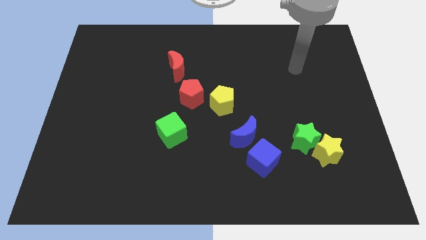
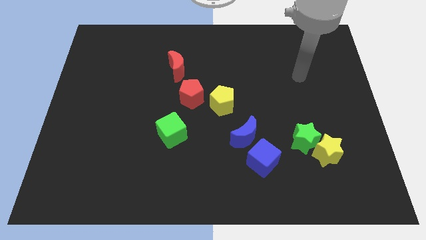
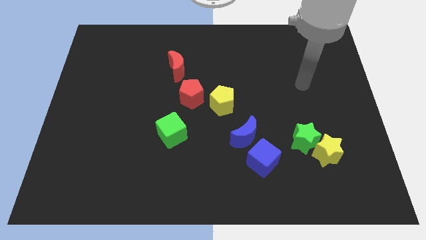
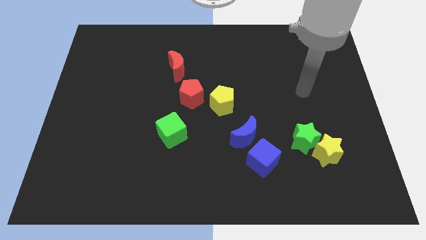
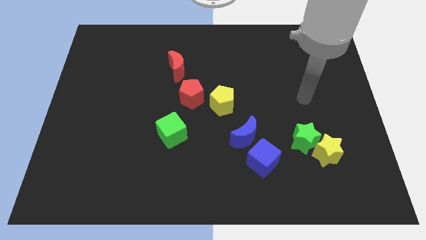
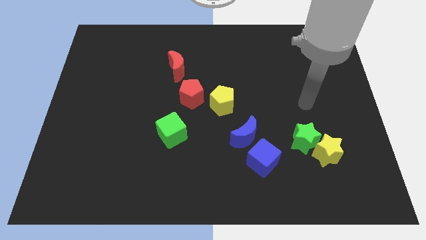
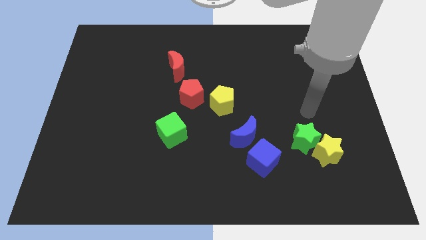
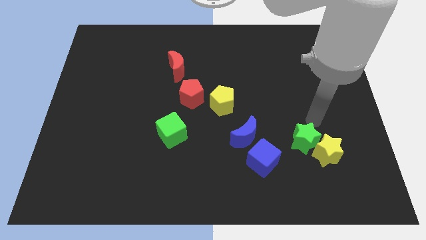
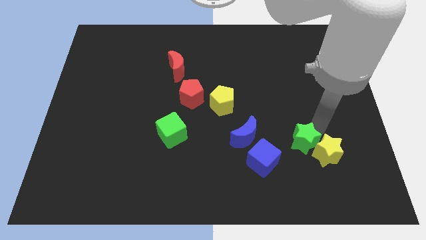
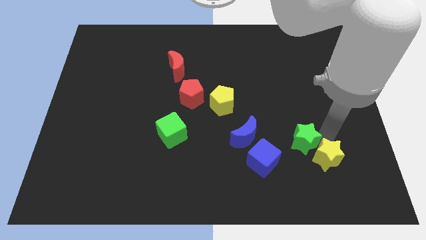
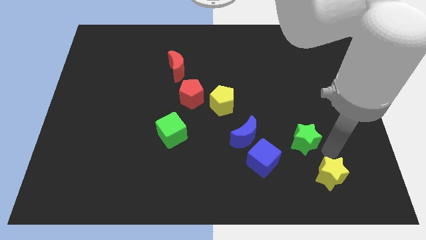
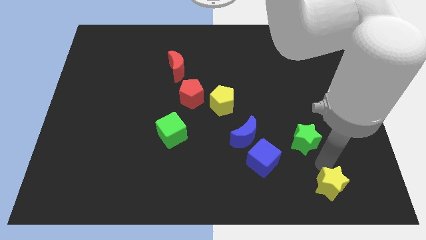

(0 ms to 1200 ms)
separate the green star from the yellow star

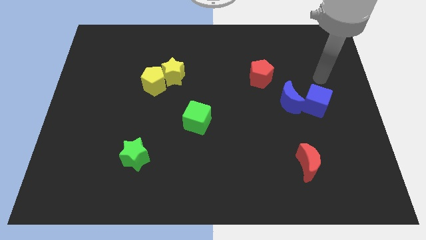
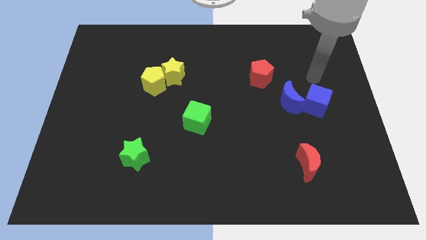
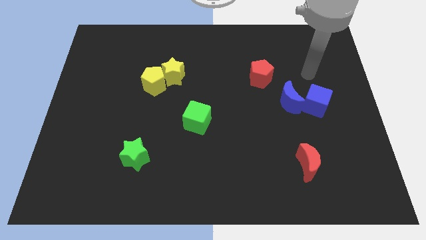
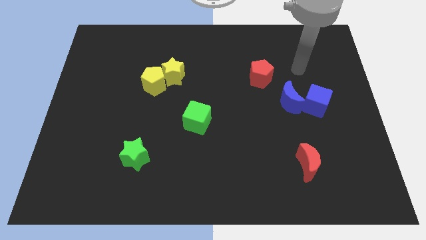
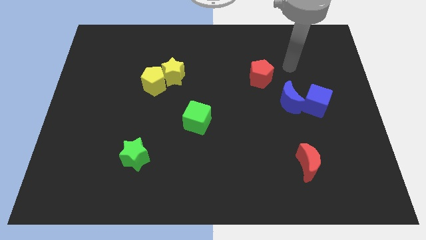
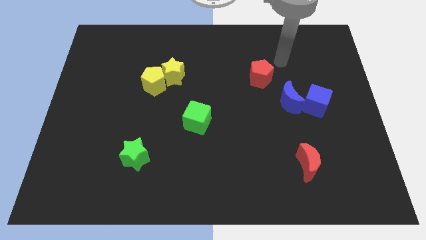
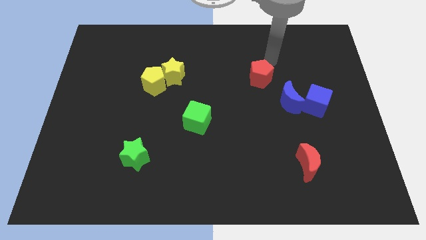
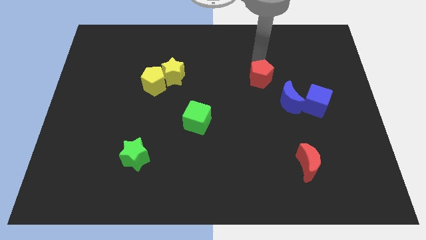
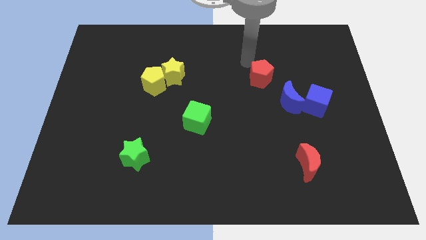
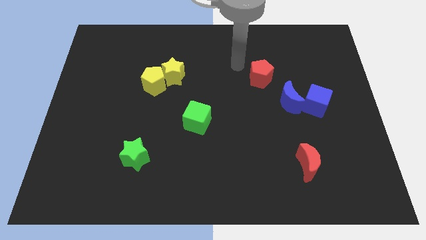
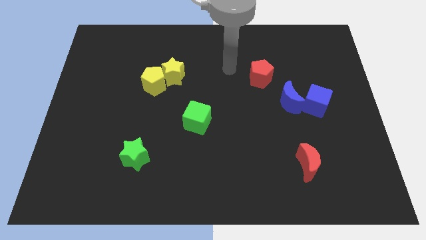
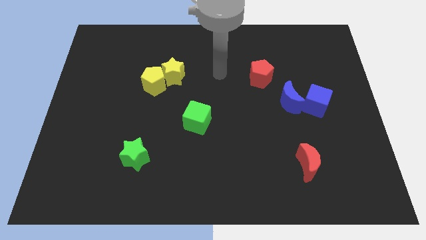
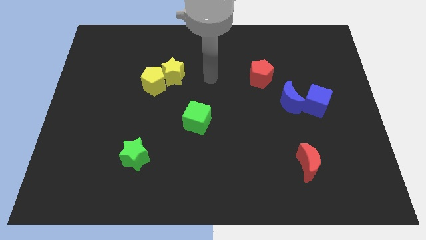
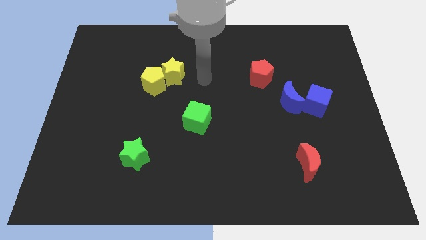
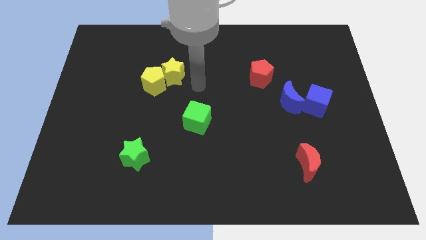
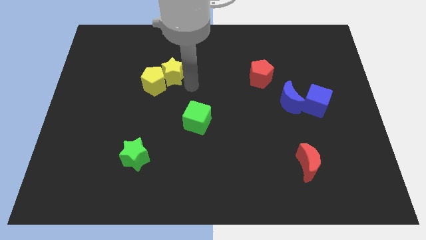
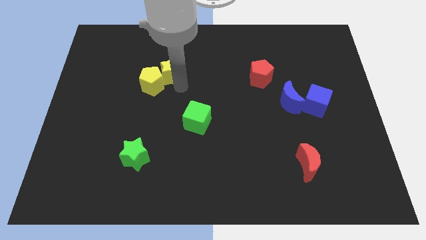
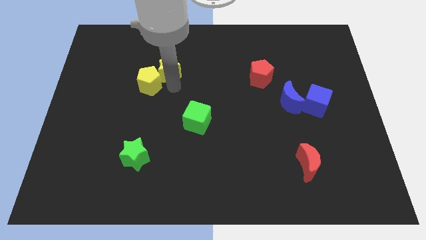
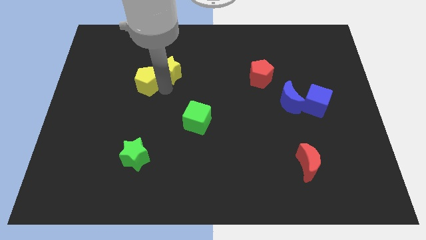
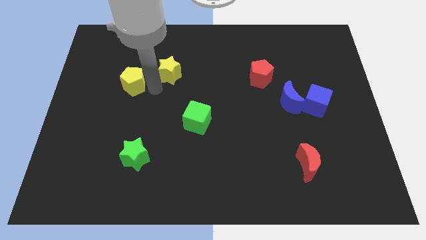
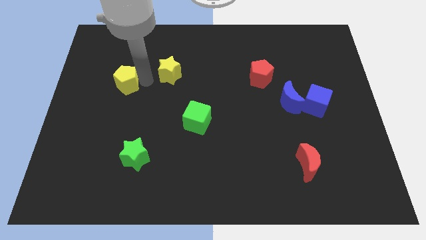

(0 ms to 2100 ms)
pull the yellow star apart from the yellow pentagon

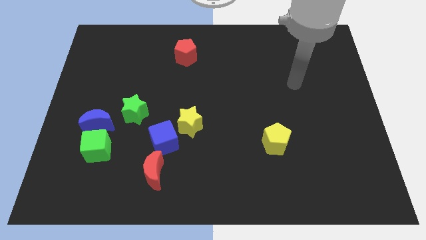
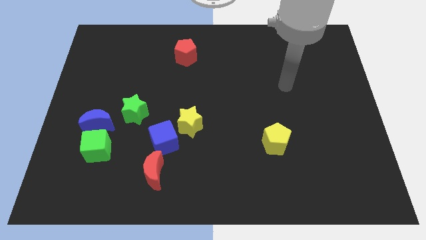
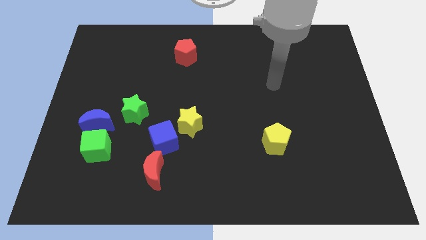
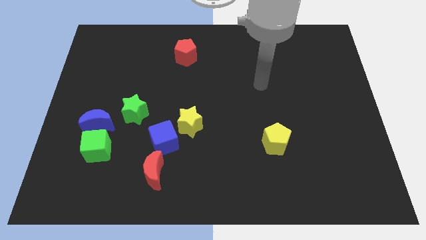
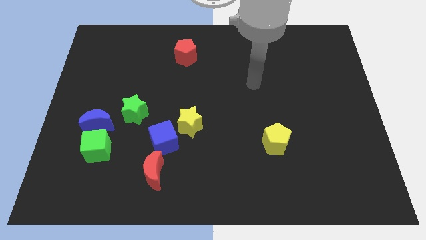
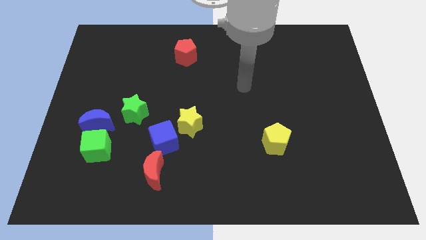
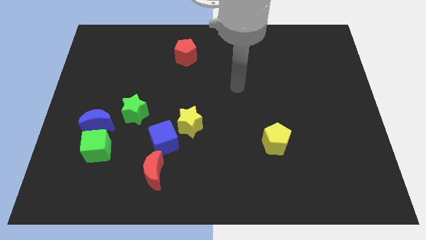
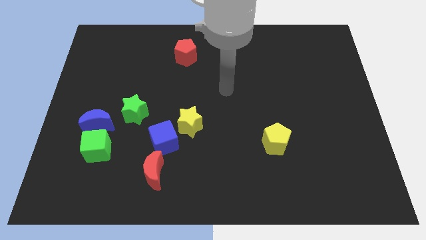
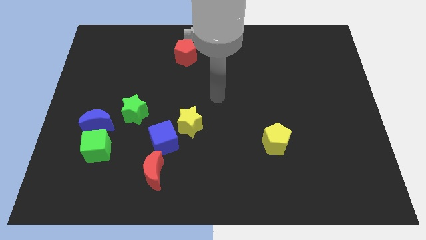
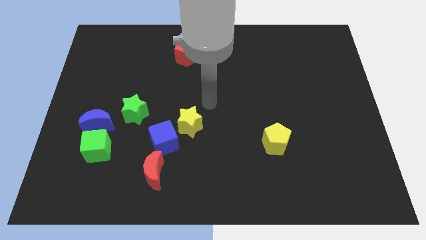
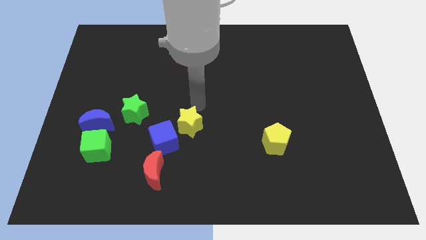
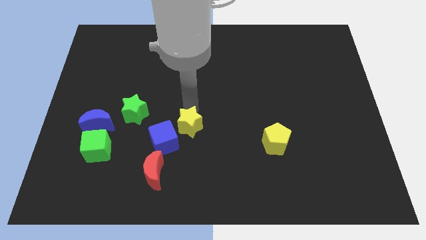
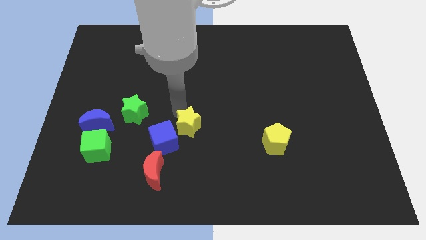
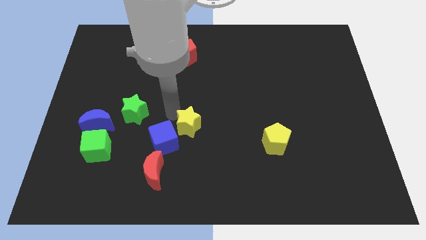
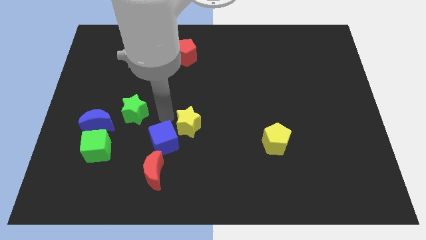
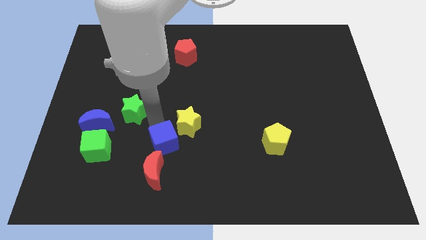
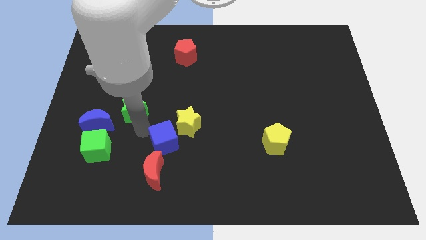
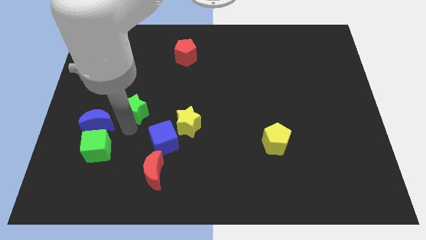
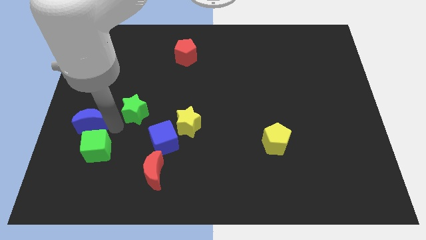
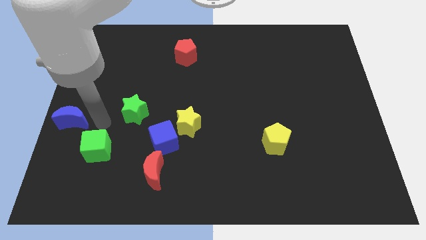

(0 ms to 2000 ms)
pull the green cube apart from the blue moon

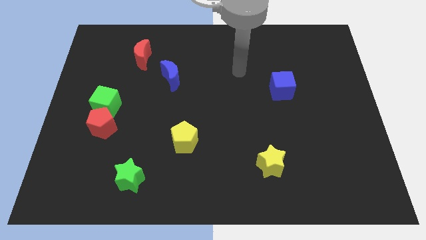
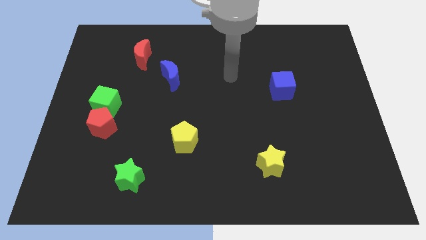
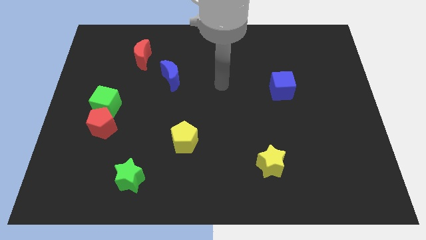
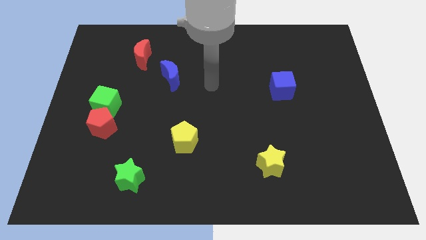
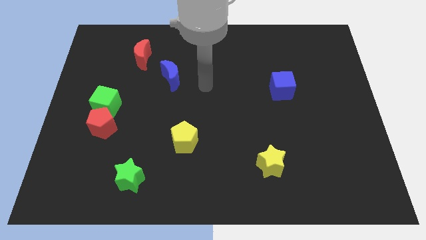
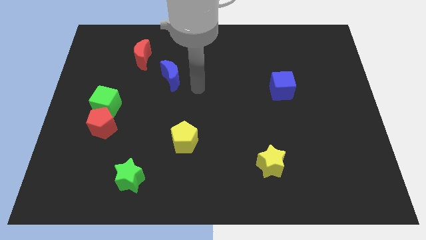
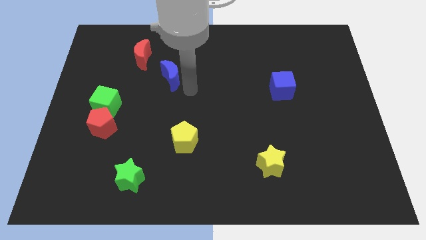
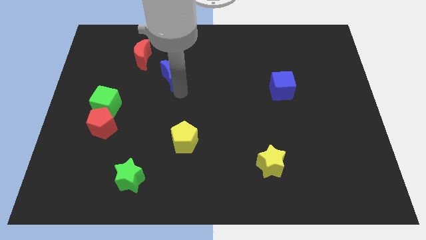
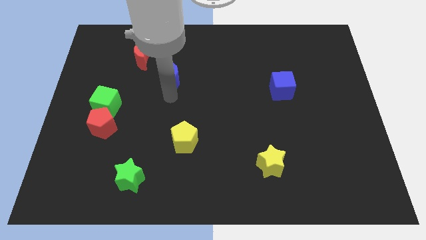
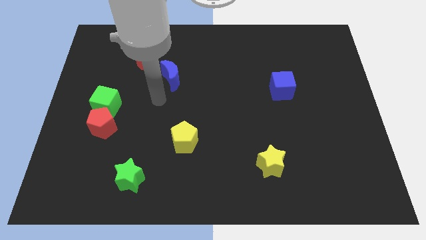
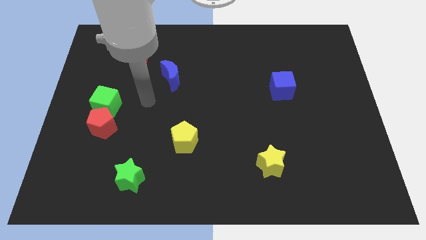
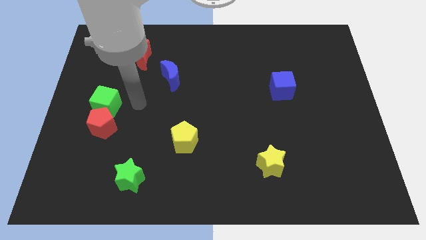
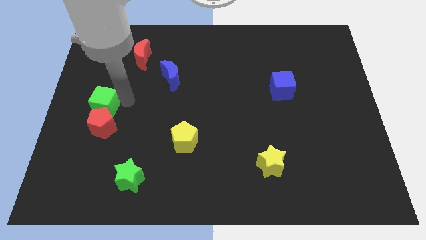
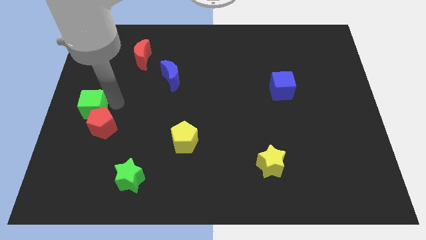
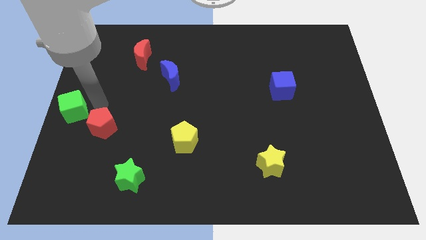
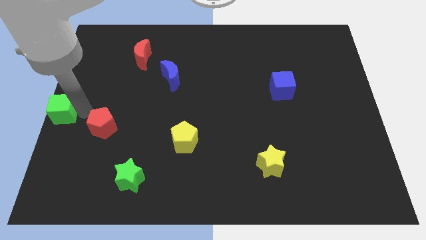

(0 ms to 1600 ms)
separate the red pentagon from the green cube

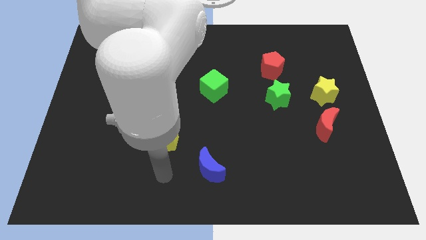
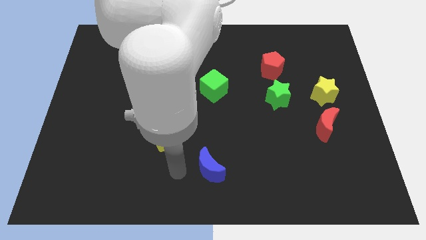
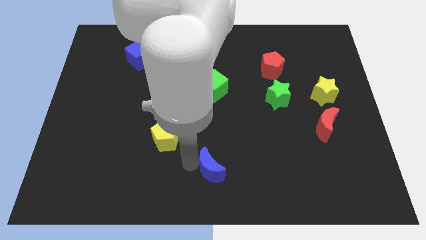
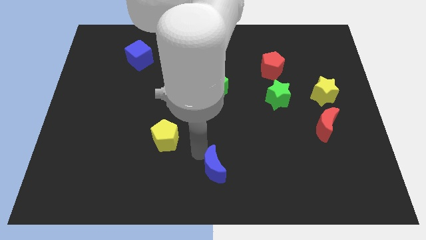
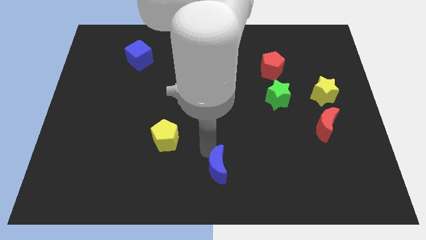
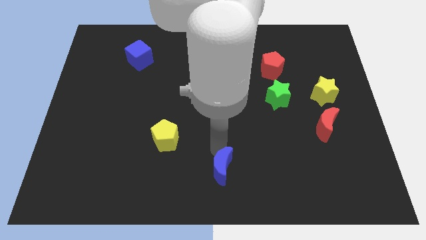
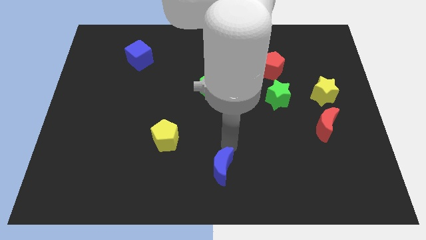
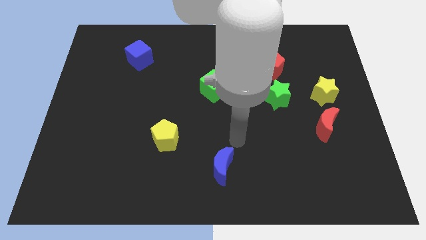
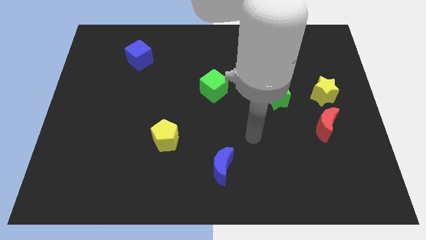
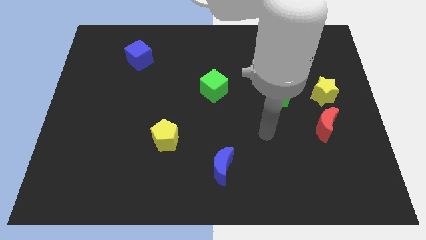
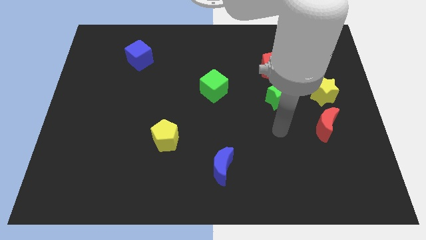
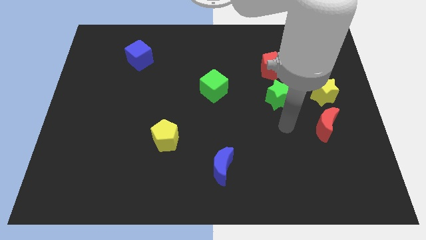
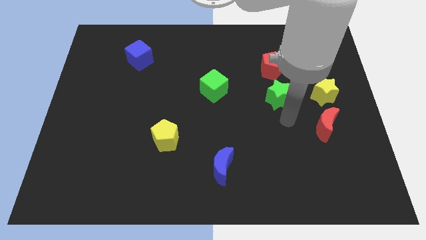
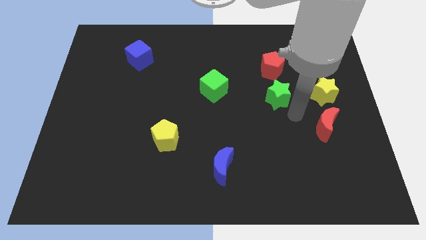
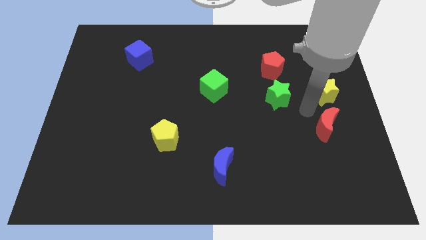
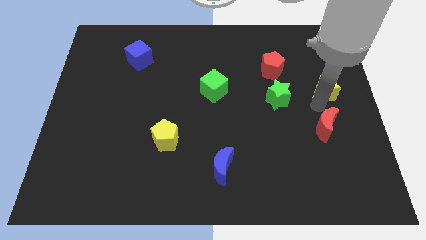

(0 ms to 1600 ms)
move the red moon away from the yellow star

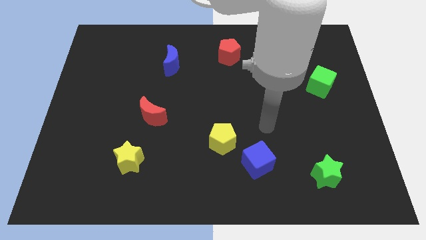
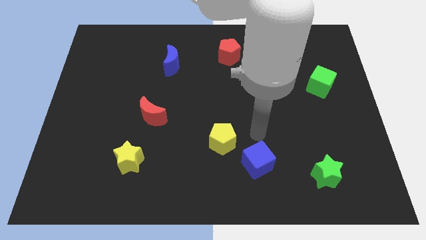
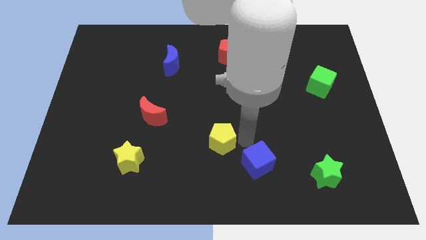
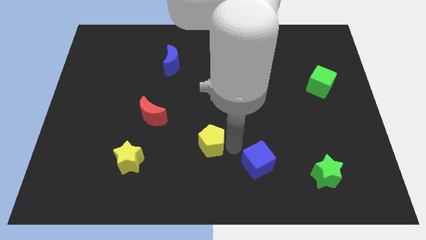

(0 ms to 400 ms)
move the blue cube away from the yellow pentagon

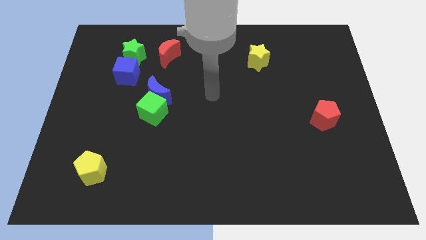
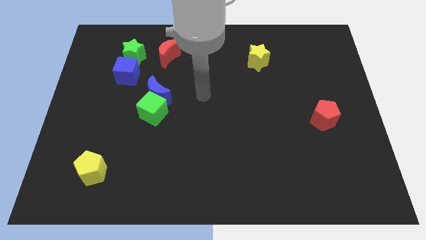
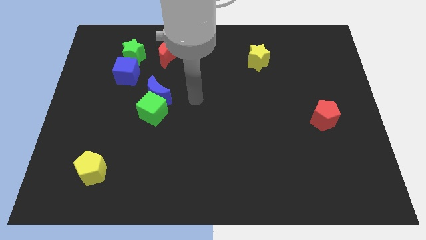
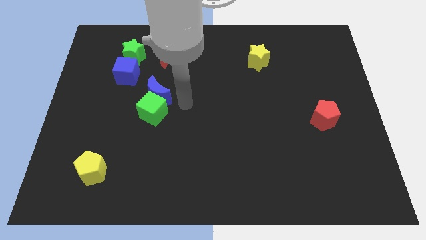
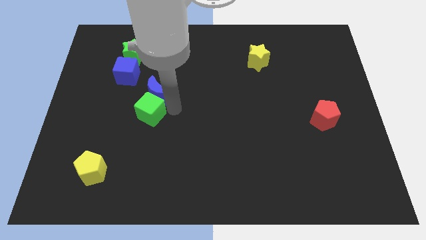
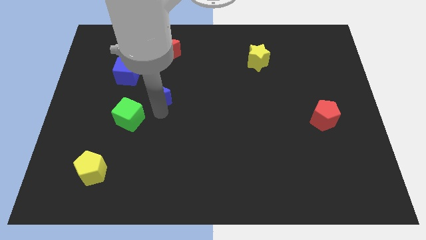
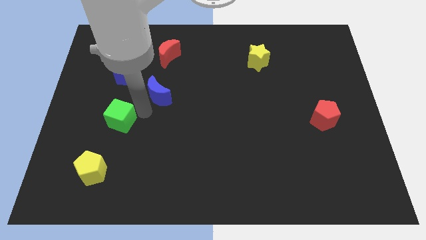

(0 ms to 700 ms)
move the blue moon away from the green cube
